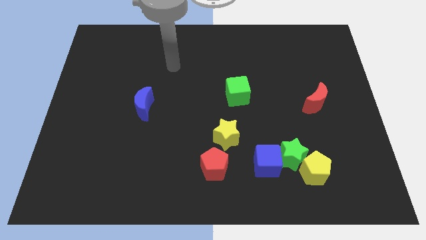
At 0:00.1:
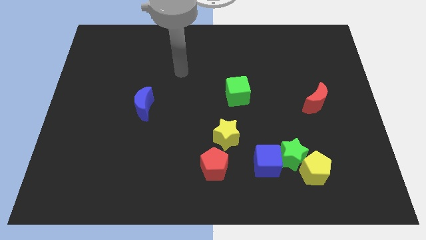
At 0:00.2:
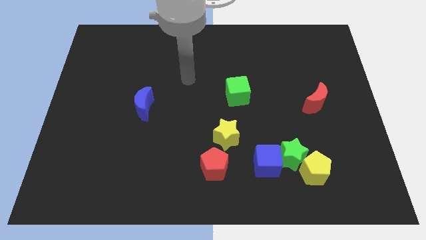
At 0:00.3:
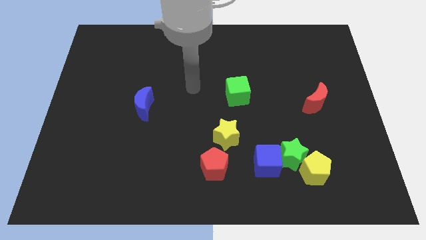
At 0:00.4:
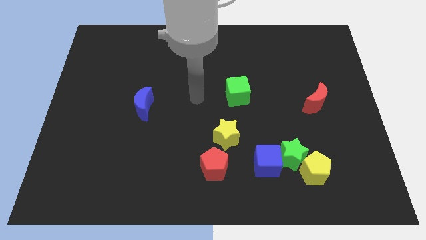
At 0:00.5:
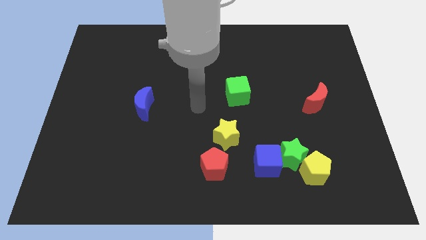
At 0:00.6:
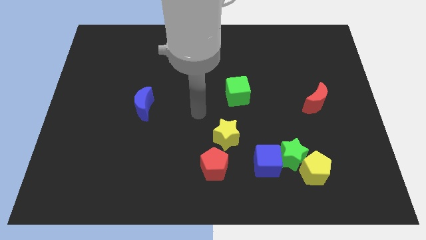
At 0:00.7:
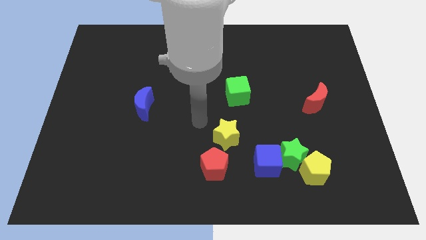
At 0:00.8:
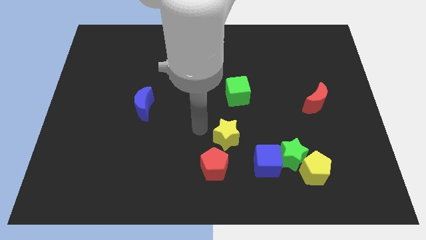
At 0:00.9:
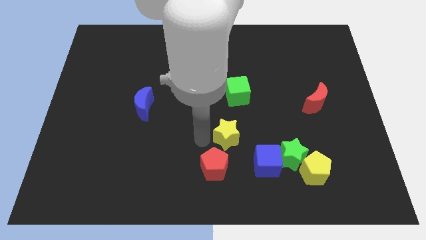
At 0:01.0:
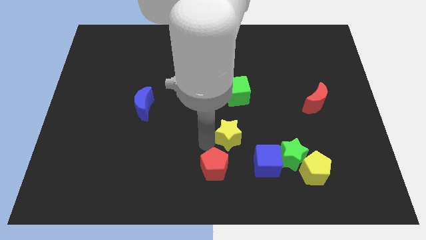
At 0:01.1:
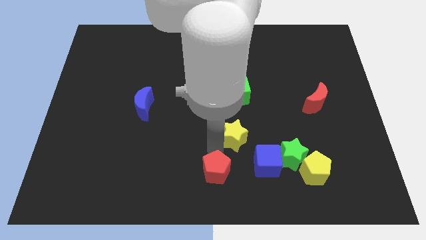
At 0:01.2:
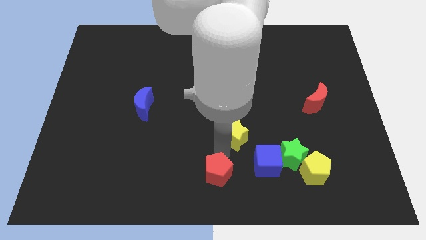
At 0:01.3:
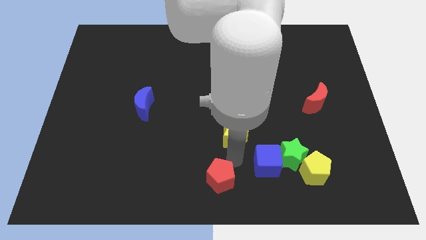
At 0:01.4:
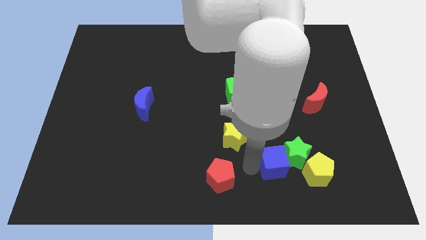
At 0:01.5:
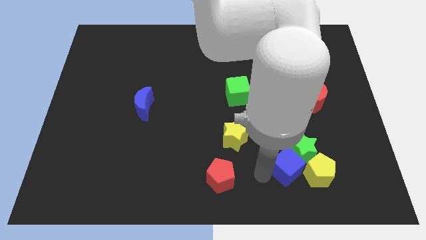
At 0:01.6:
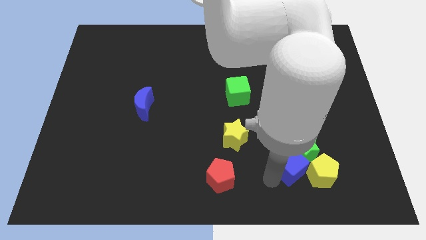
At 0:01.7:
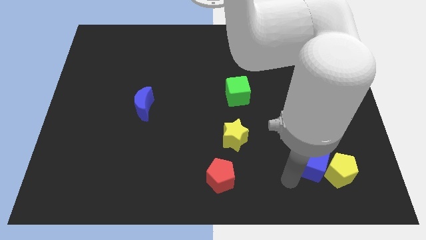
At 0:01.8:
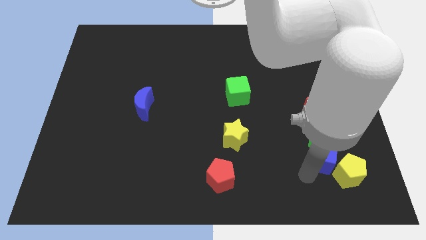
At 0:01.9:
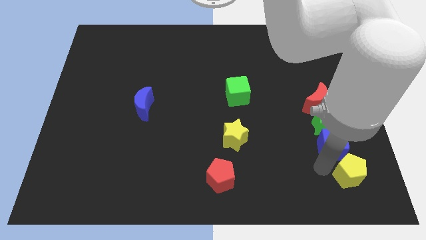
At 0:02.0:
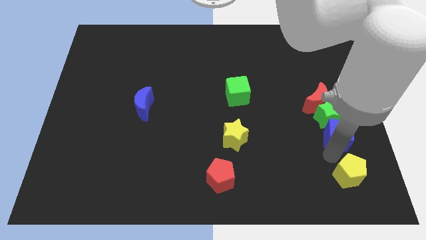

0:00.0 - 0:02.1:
move the green star away from the yellow pentagon and blue cube

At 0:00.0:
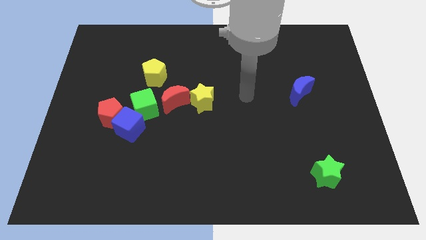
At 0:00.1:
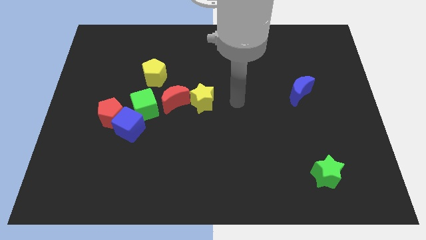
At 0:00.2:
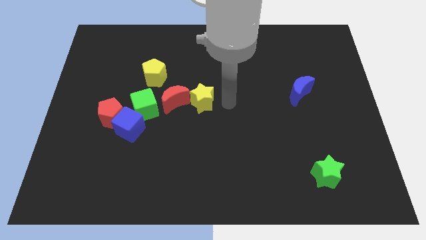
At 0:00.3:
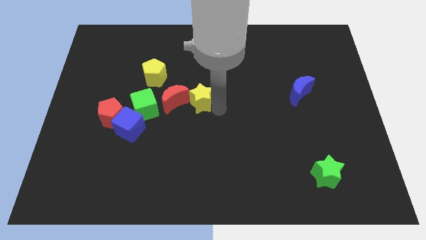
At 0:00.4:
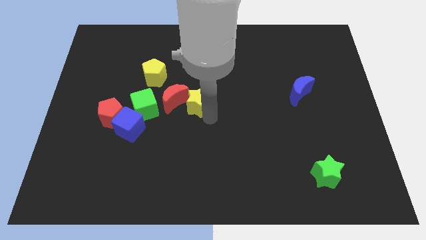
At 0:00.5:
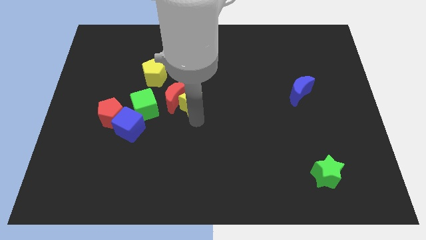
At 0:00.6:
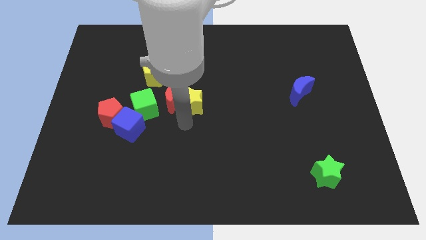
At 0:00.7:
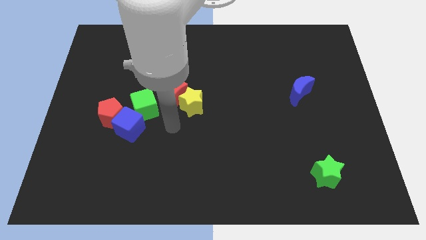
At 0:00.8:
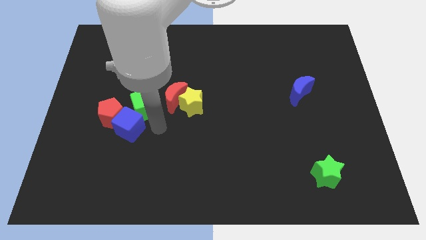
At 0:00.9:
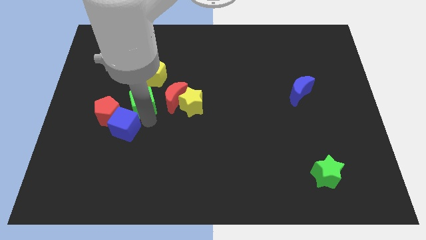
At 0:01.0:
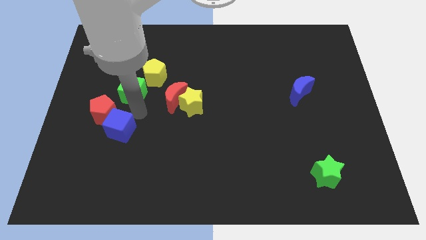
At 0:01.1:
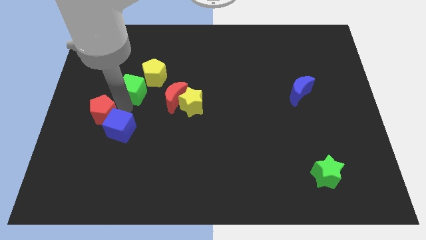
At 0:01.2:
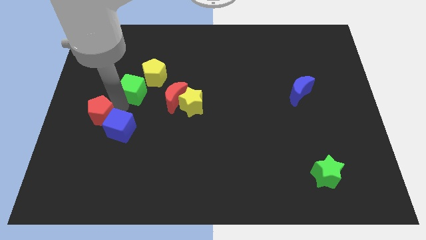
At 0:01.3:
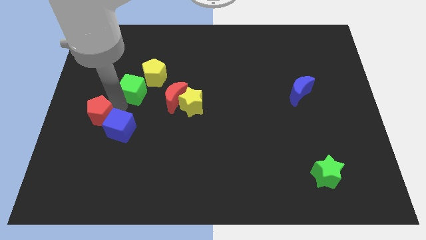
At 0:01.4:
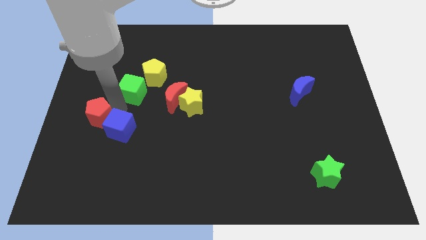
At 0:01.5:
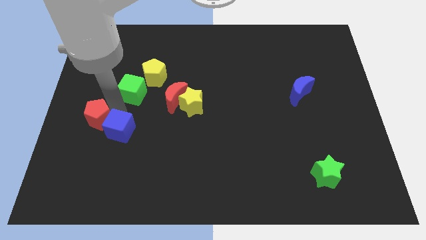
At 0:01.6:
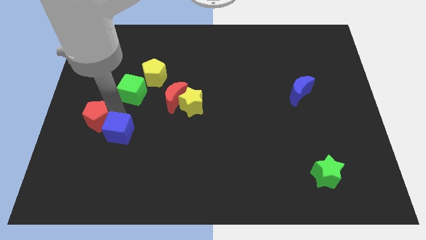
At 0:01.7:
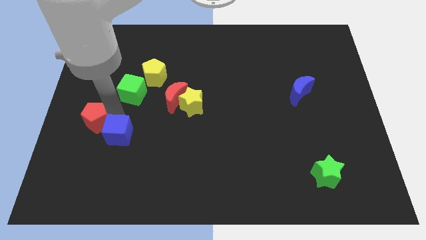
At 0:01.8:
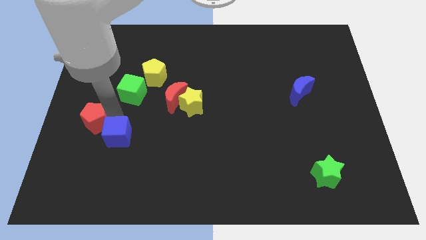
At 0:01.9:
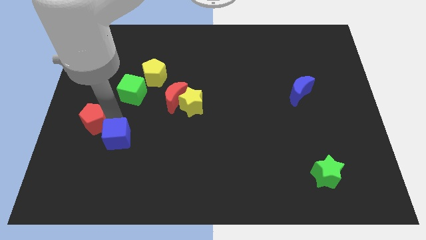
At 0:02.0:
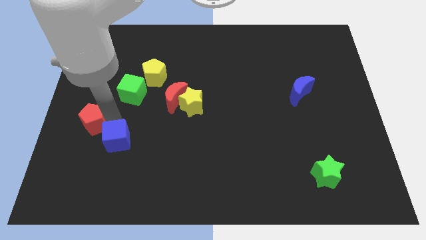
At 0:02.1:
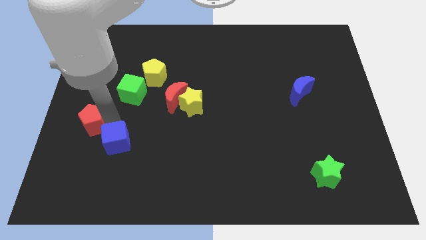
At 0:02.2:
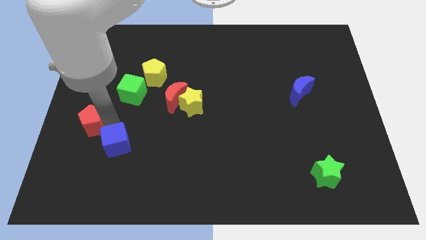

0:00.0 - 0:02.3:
pull the blue cube apart from the red pentagon and green cube

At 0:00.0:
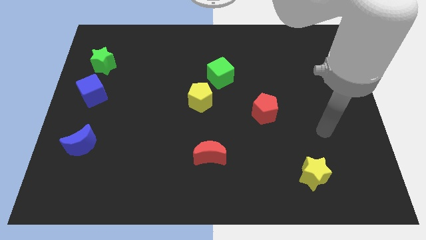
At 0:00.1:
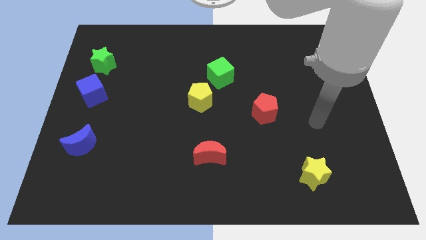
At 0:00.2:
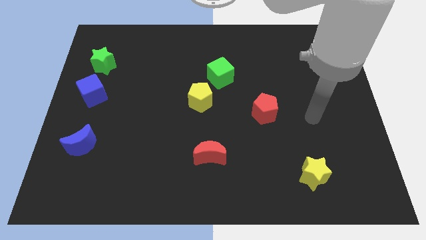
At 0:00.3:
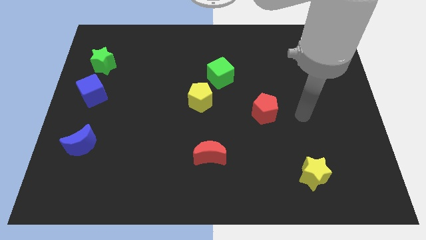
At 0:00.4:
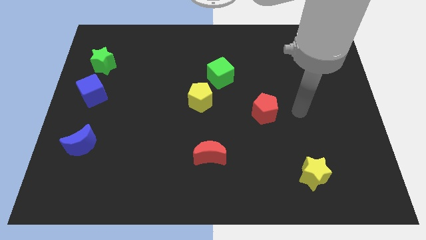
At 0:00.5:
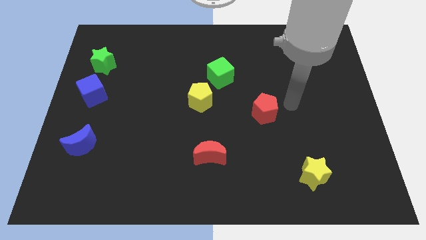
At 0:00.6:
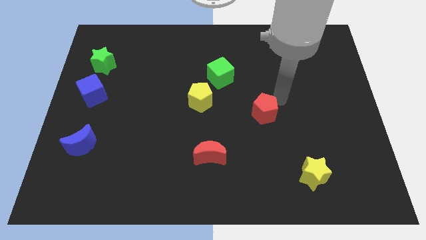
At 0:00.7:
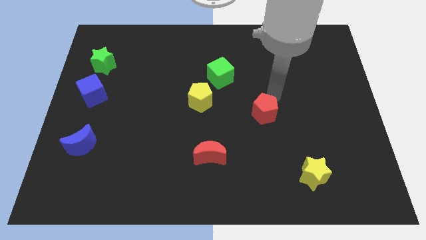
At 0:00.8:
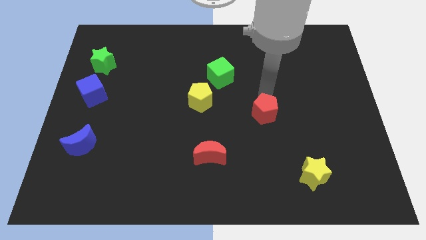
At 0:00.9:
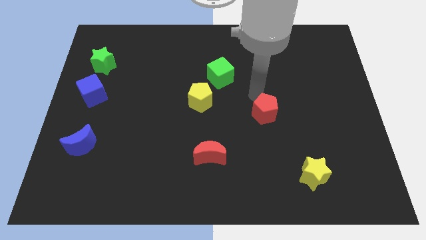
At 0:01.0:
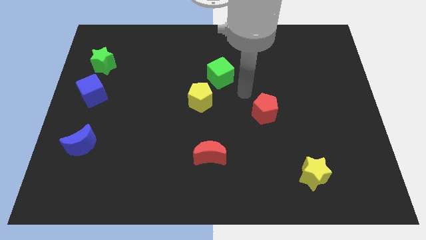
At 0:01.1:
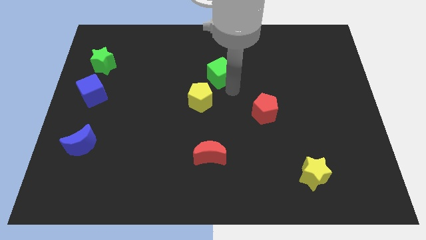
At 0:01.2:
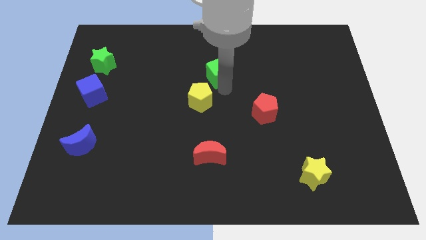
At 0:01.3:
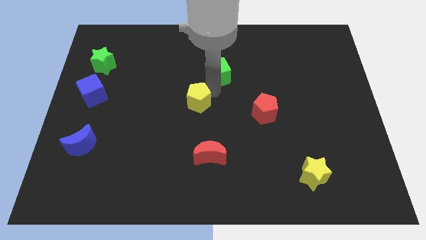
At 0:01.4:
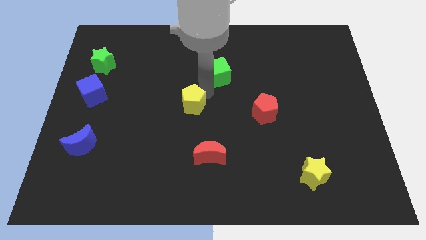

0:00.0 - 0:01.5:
move the green cube away from the yellow pentagon

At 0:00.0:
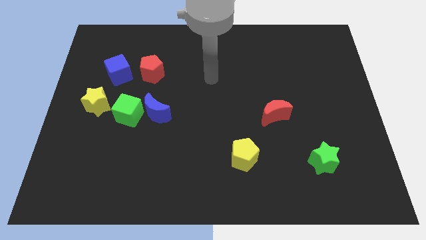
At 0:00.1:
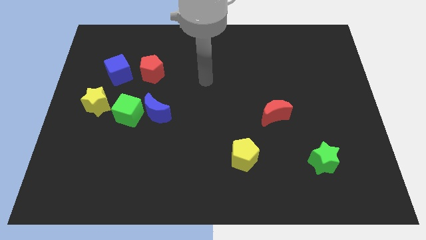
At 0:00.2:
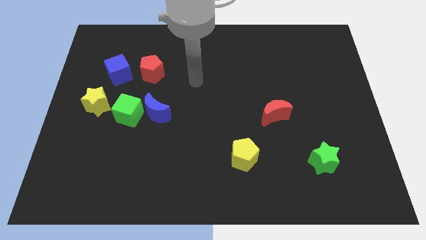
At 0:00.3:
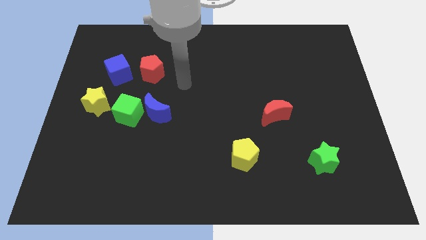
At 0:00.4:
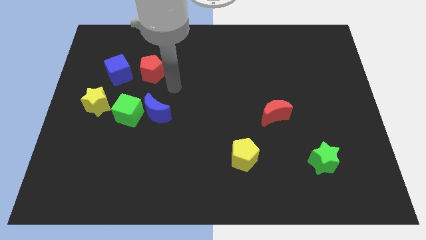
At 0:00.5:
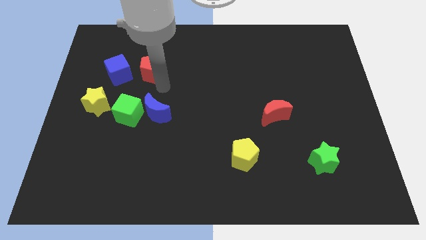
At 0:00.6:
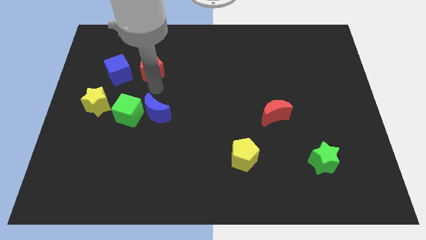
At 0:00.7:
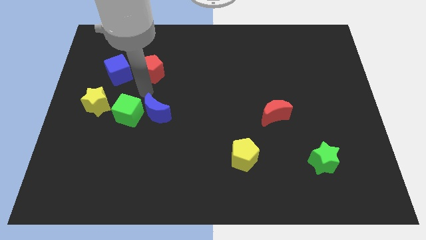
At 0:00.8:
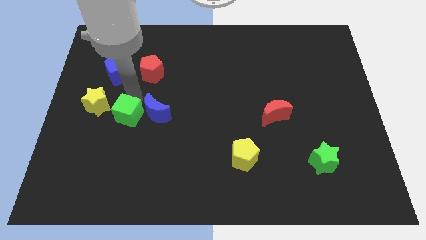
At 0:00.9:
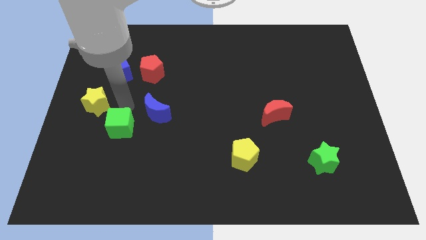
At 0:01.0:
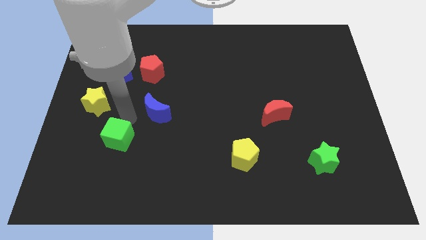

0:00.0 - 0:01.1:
separate the blue moon from the green cube

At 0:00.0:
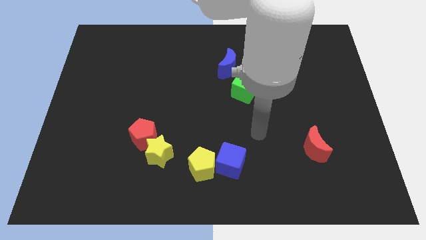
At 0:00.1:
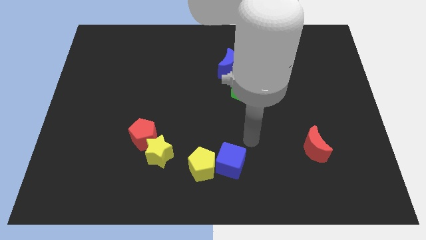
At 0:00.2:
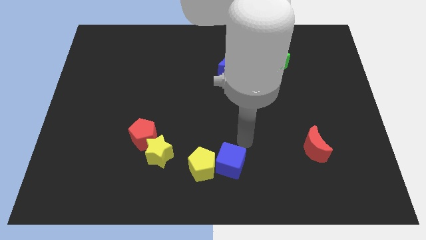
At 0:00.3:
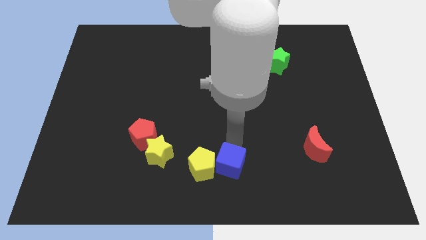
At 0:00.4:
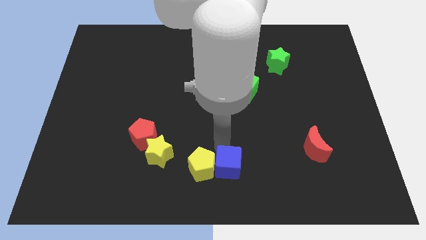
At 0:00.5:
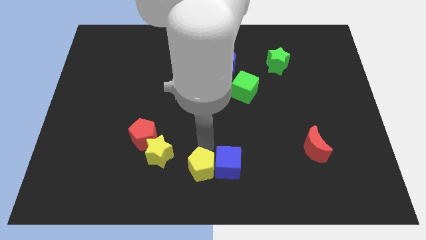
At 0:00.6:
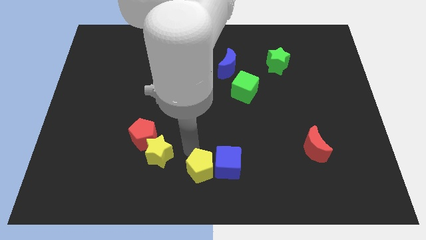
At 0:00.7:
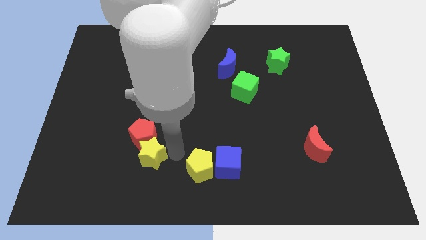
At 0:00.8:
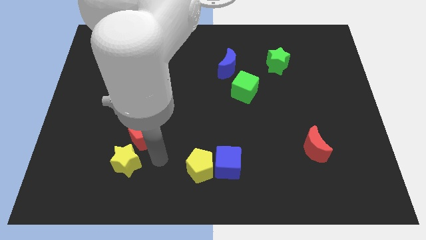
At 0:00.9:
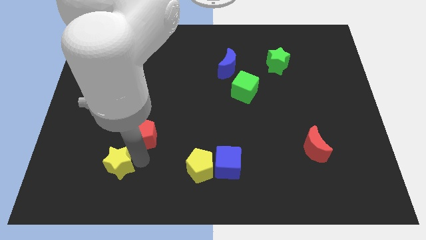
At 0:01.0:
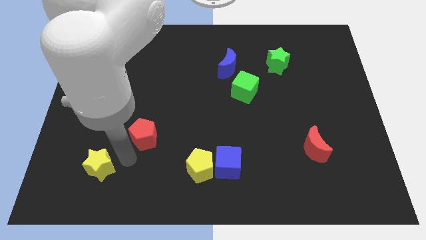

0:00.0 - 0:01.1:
separate the red pentagon from the yellow star

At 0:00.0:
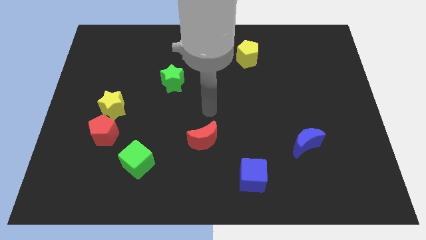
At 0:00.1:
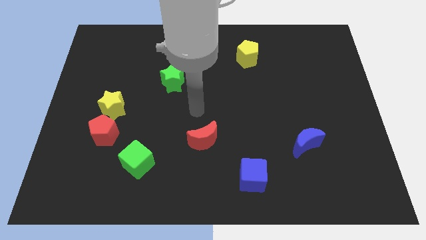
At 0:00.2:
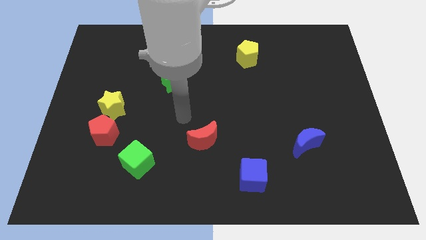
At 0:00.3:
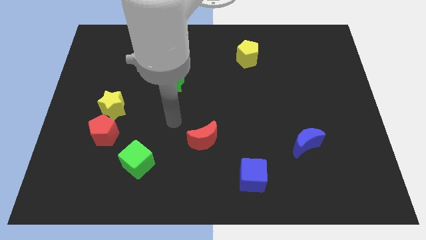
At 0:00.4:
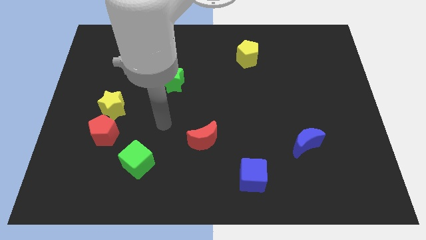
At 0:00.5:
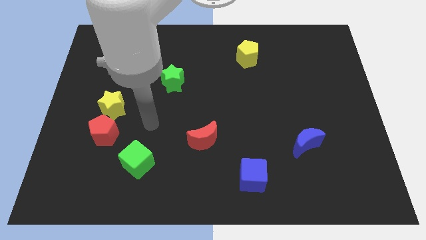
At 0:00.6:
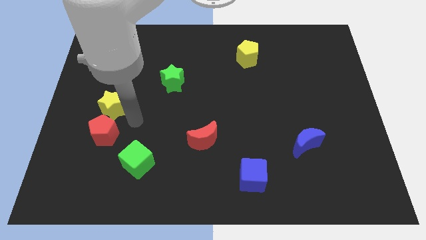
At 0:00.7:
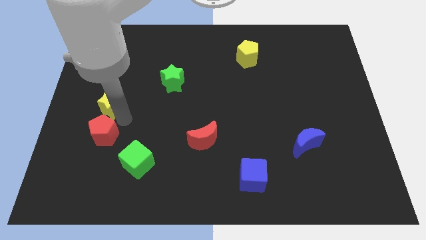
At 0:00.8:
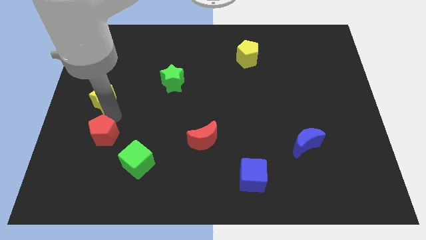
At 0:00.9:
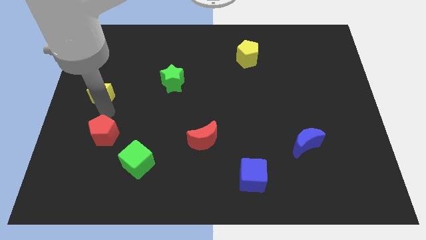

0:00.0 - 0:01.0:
pull the red pentagon apart from the yellow star

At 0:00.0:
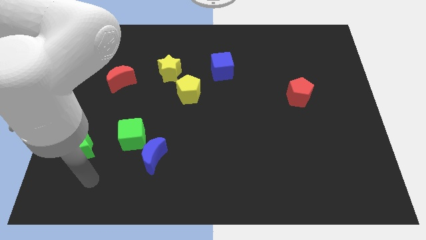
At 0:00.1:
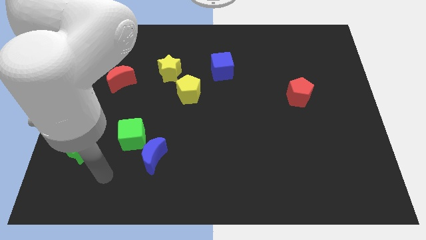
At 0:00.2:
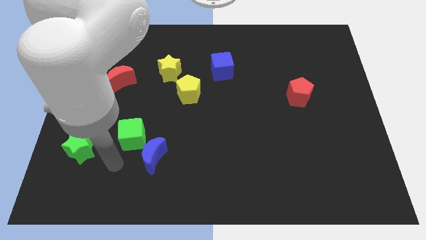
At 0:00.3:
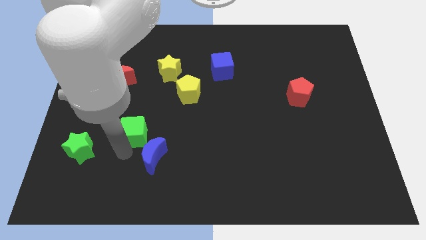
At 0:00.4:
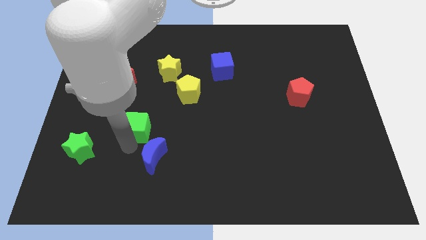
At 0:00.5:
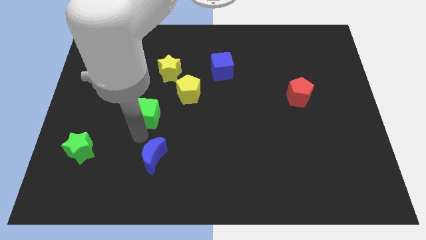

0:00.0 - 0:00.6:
move the blue moon away from the green cube
